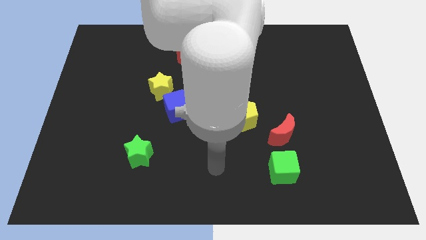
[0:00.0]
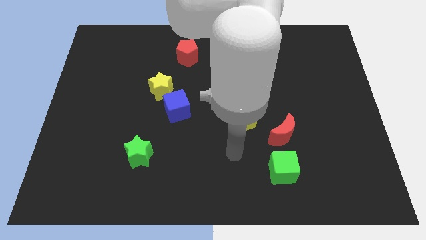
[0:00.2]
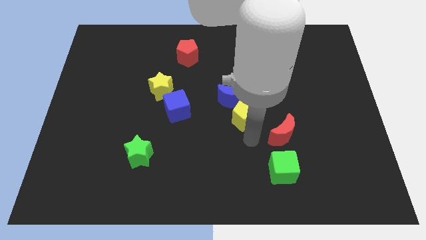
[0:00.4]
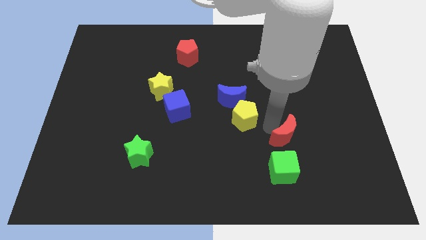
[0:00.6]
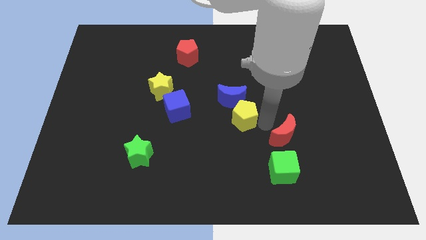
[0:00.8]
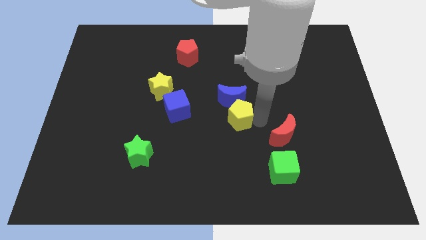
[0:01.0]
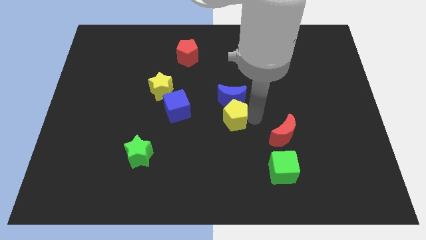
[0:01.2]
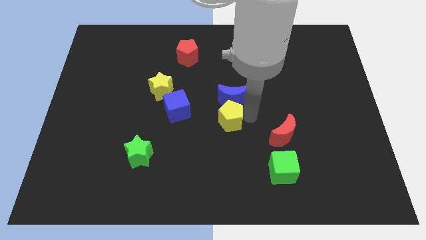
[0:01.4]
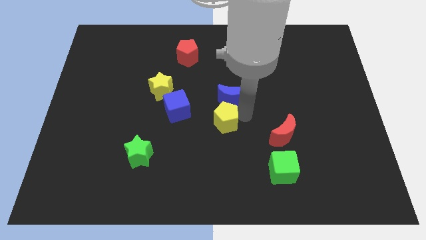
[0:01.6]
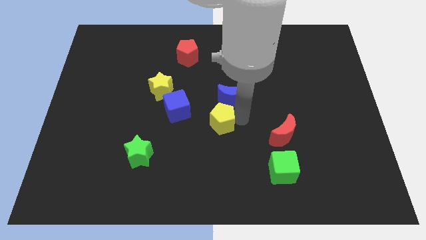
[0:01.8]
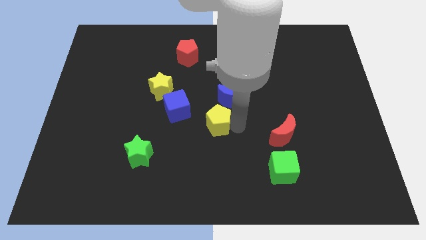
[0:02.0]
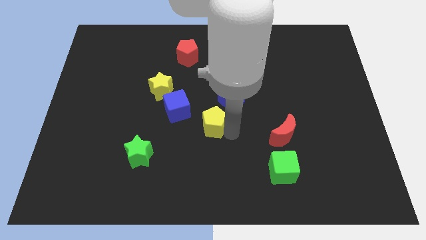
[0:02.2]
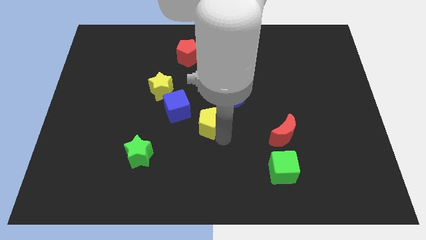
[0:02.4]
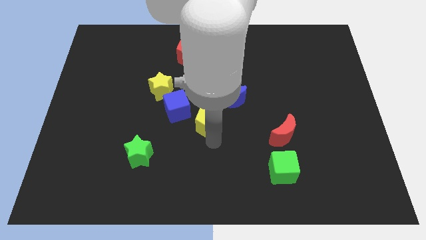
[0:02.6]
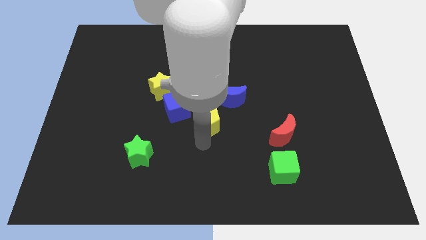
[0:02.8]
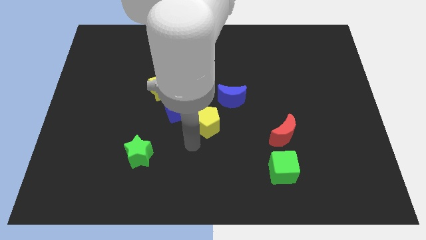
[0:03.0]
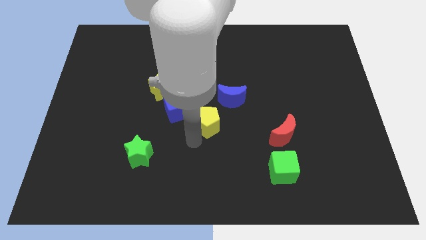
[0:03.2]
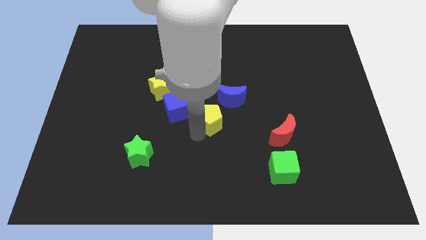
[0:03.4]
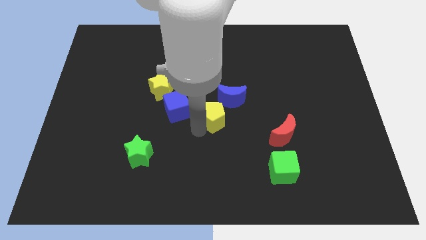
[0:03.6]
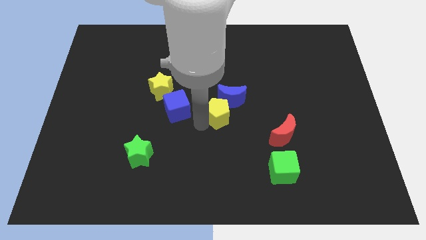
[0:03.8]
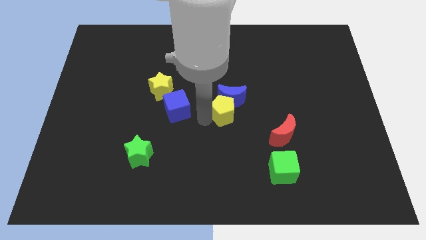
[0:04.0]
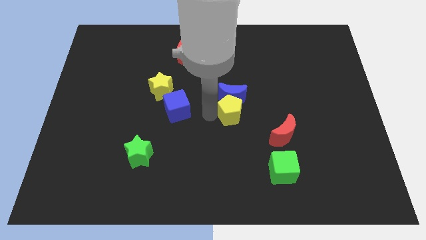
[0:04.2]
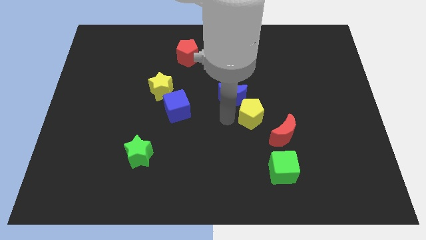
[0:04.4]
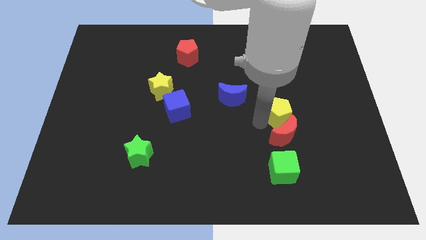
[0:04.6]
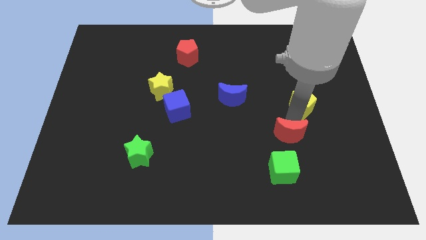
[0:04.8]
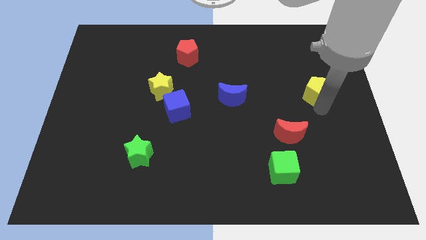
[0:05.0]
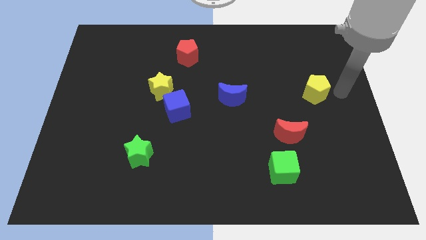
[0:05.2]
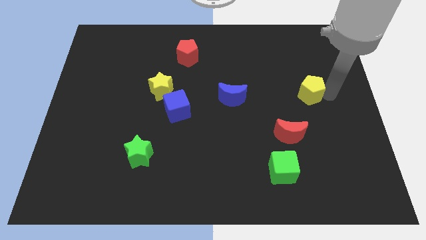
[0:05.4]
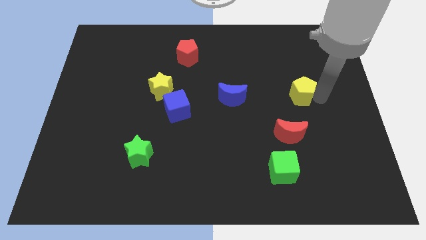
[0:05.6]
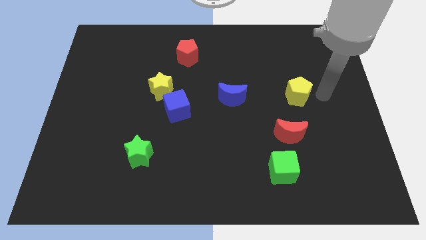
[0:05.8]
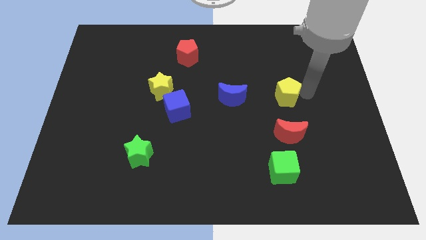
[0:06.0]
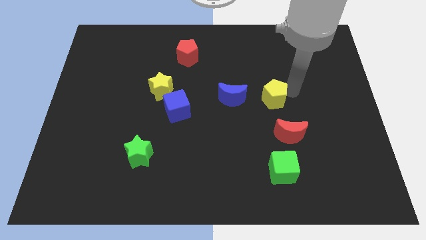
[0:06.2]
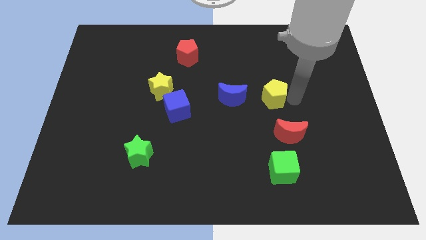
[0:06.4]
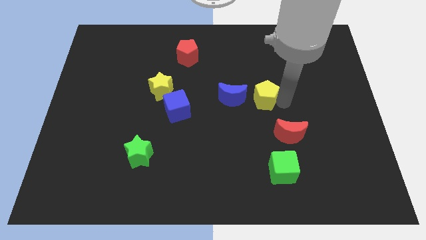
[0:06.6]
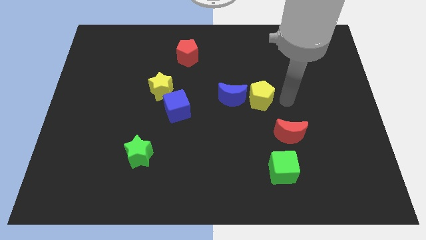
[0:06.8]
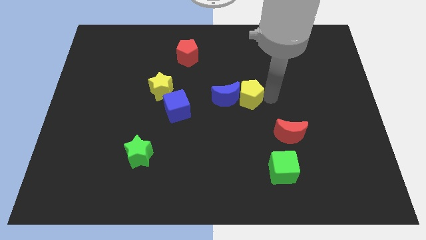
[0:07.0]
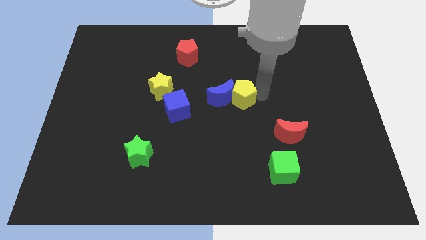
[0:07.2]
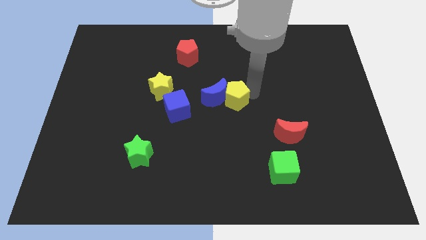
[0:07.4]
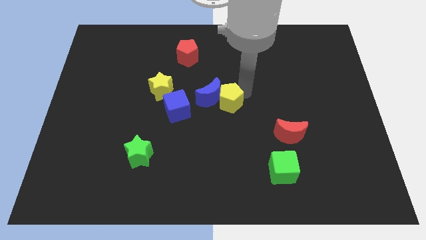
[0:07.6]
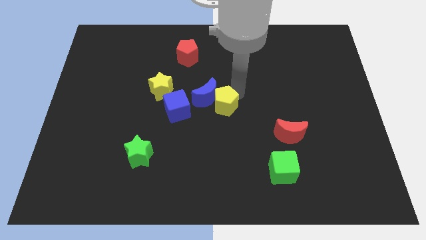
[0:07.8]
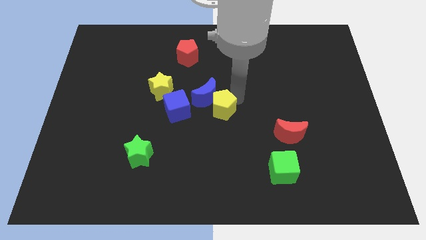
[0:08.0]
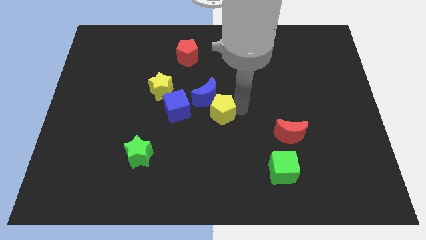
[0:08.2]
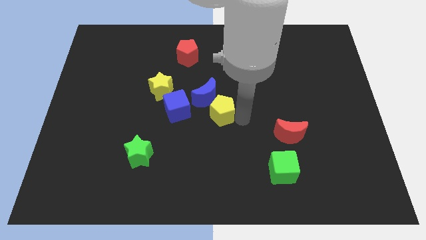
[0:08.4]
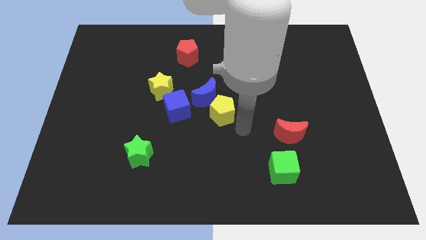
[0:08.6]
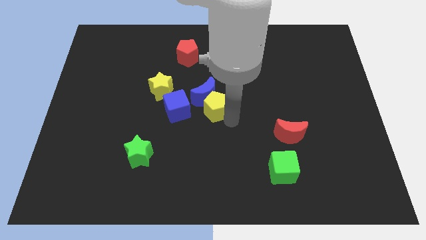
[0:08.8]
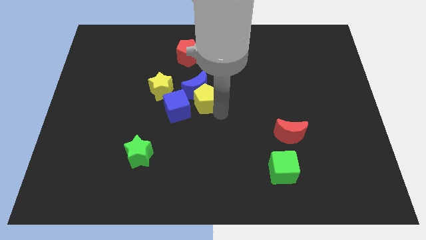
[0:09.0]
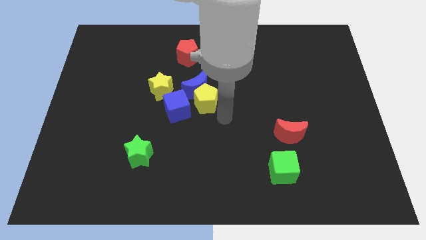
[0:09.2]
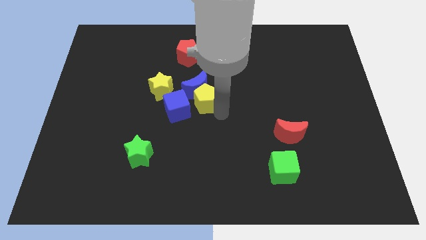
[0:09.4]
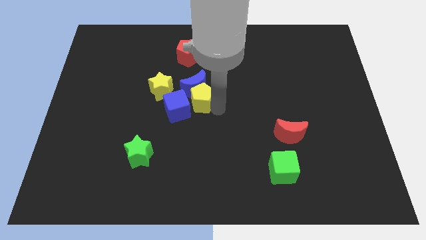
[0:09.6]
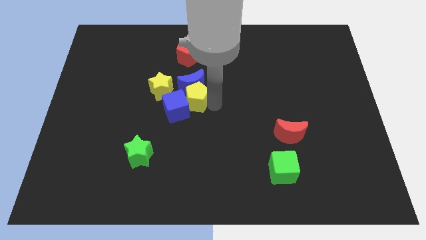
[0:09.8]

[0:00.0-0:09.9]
move the yellow pentagon to the bottom of the red pentagon

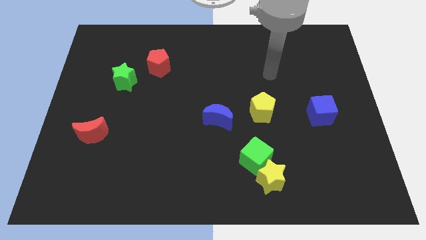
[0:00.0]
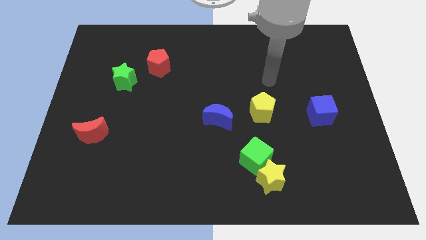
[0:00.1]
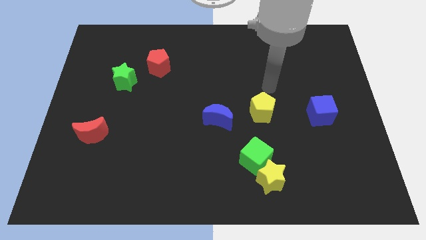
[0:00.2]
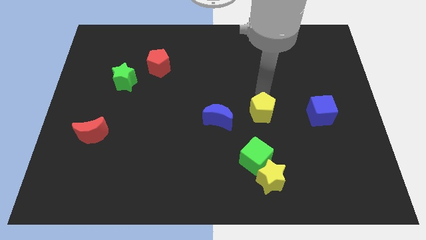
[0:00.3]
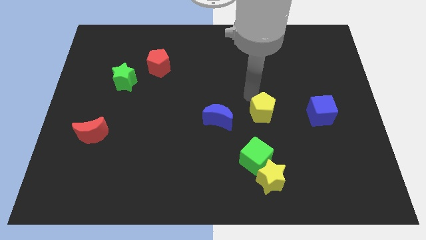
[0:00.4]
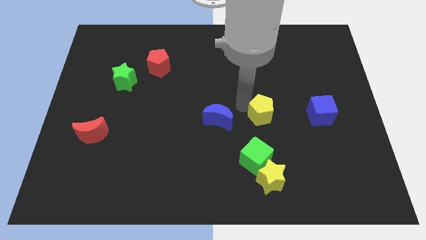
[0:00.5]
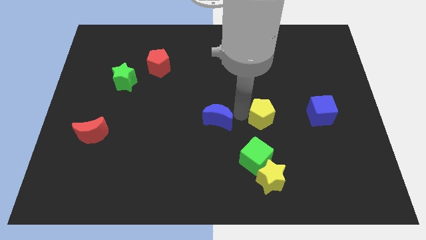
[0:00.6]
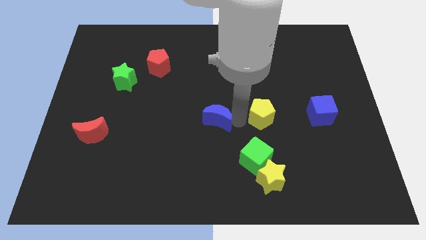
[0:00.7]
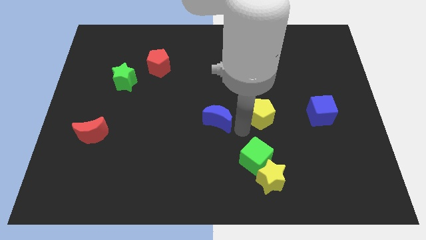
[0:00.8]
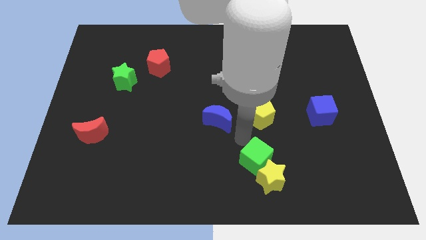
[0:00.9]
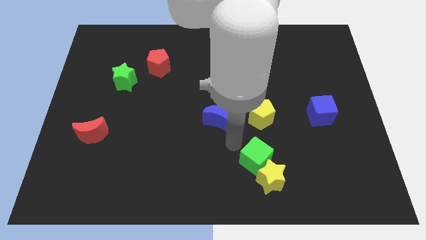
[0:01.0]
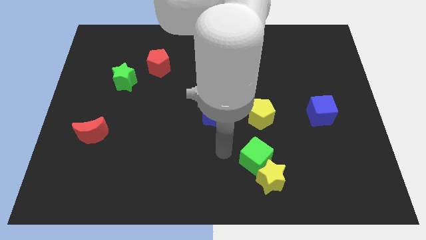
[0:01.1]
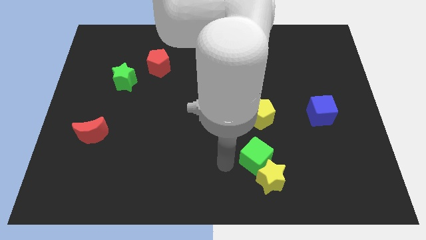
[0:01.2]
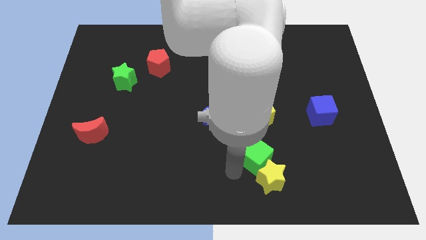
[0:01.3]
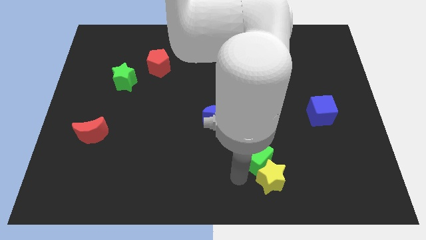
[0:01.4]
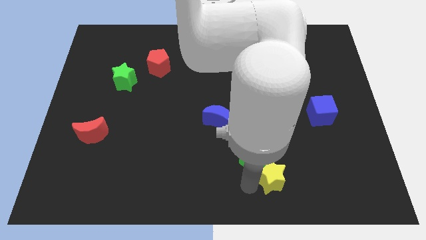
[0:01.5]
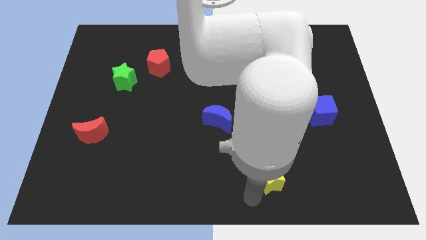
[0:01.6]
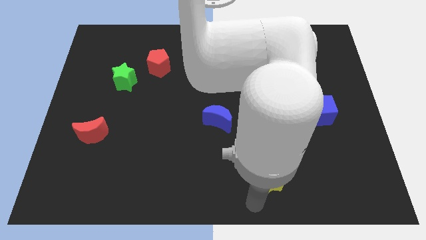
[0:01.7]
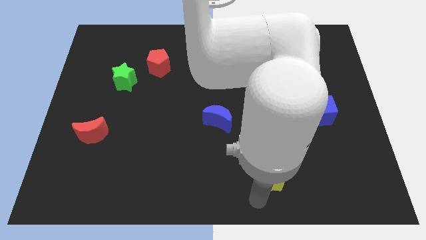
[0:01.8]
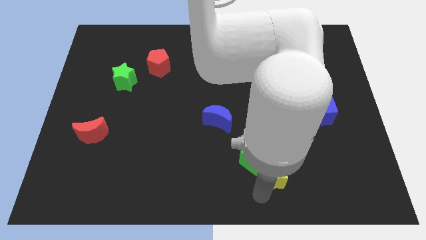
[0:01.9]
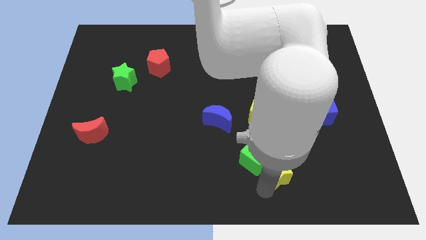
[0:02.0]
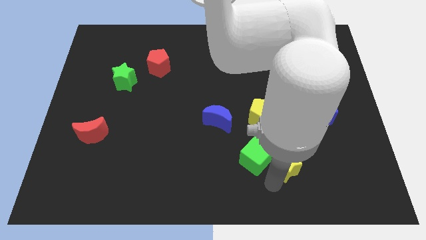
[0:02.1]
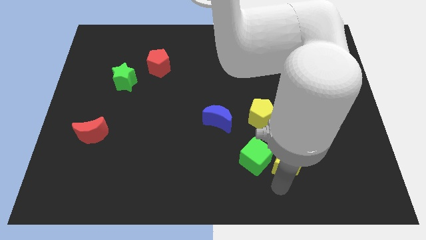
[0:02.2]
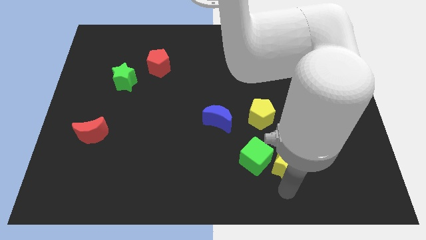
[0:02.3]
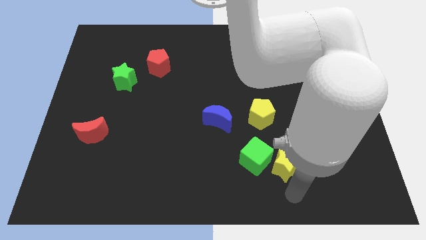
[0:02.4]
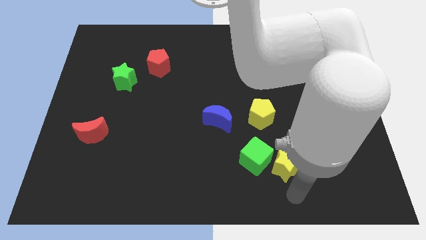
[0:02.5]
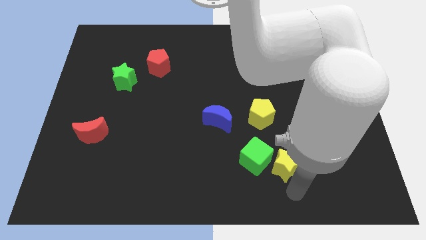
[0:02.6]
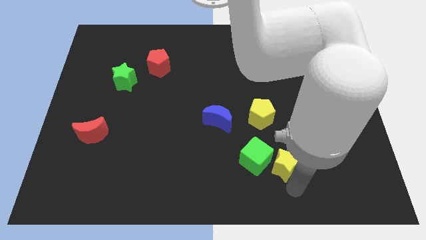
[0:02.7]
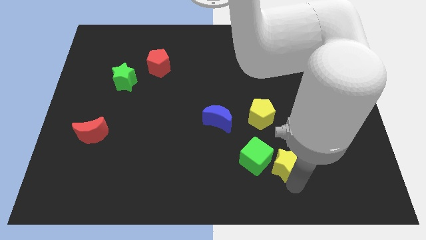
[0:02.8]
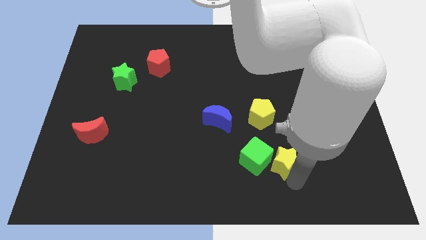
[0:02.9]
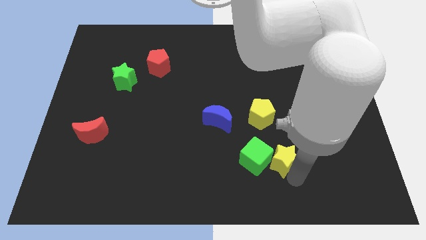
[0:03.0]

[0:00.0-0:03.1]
put the yellow star to the top right side of the green cube
